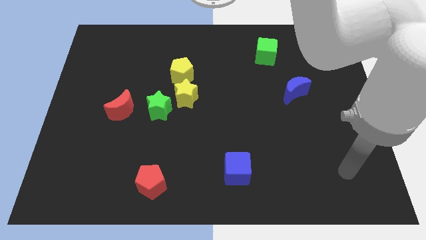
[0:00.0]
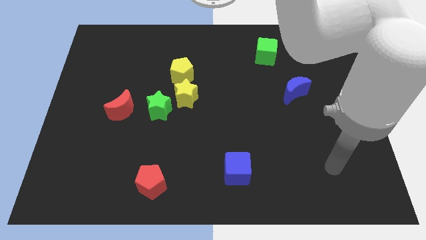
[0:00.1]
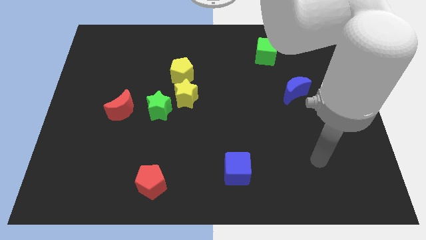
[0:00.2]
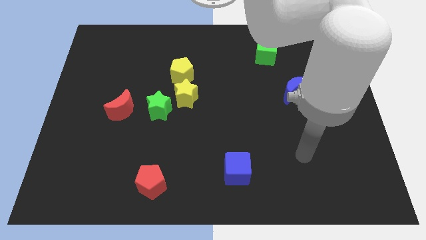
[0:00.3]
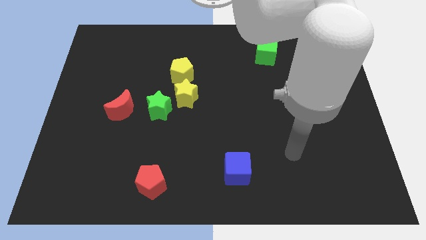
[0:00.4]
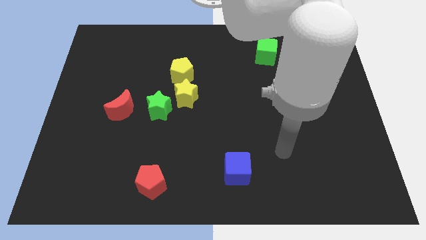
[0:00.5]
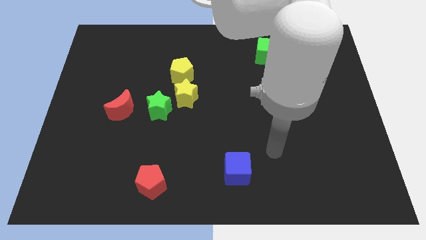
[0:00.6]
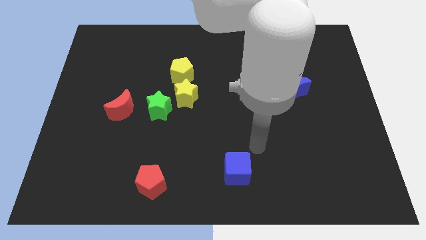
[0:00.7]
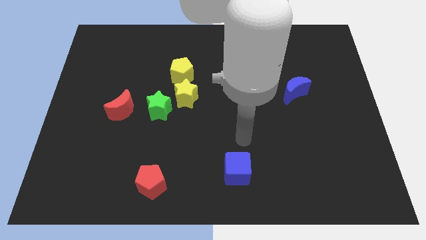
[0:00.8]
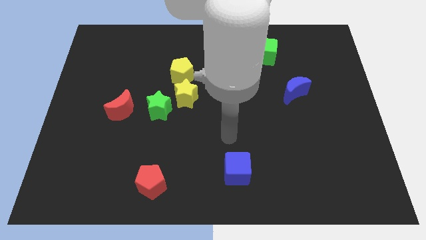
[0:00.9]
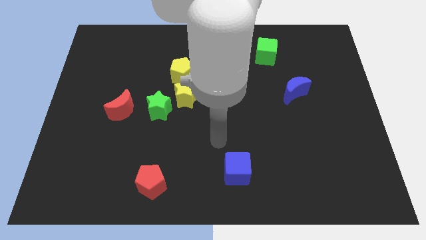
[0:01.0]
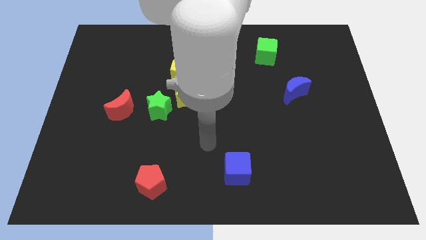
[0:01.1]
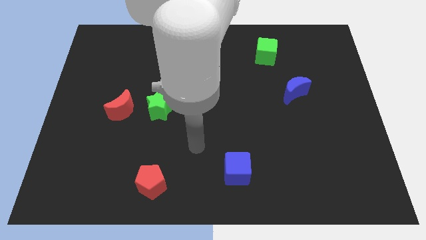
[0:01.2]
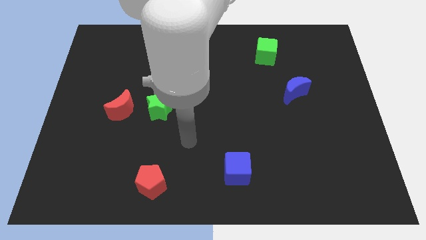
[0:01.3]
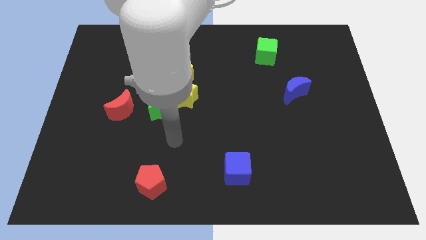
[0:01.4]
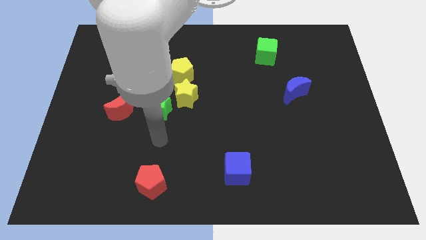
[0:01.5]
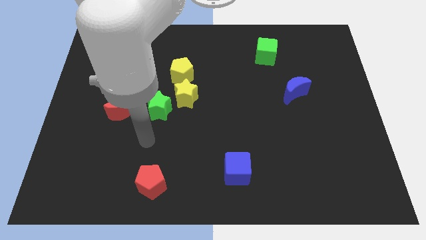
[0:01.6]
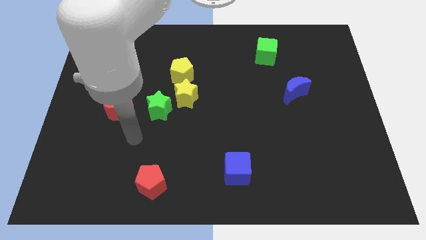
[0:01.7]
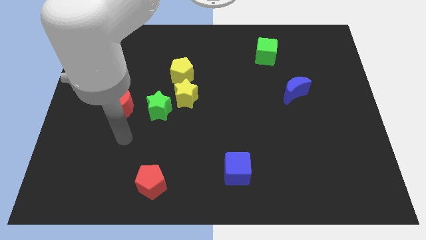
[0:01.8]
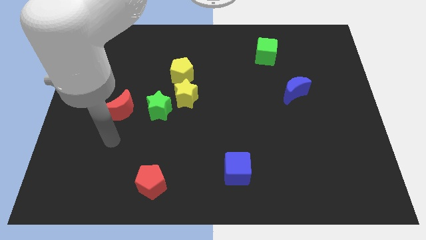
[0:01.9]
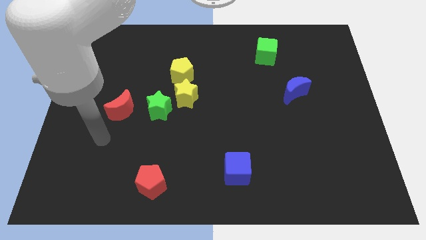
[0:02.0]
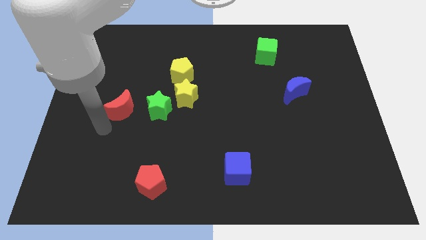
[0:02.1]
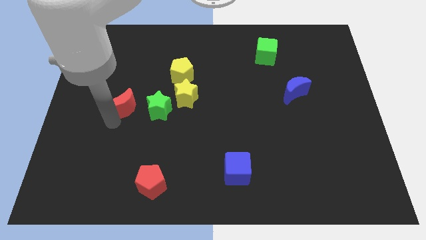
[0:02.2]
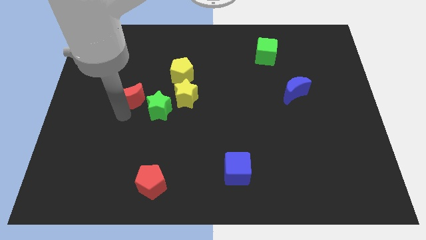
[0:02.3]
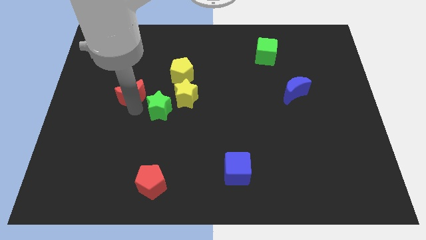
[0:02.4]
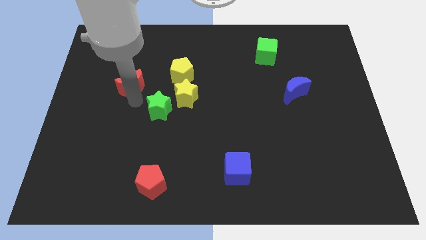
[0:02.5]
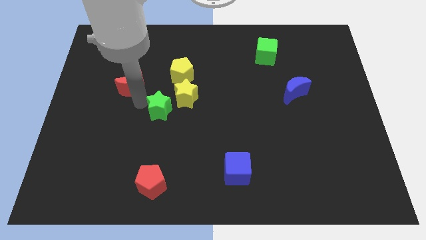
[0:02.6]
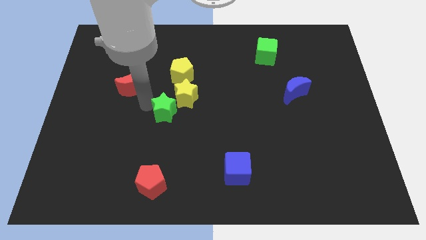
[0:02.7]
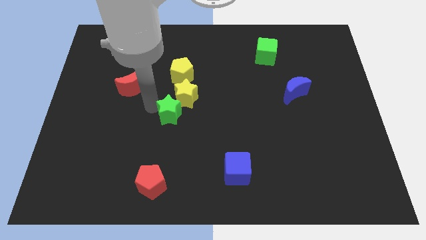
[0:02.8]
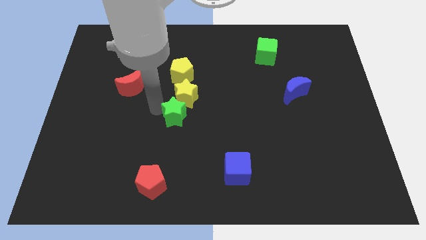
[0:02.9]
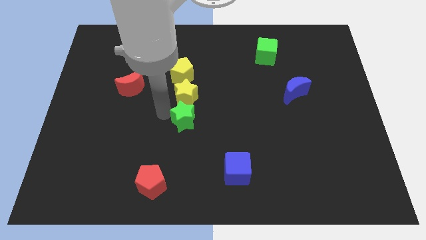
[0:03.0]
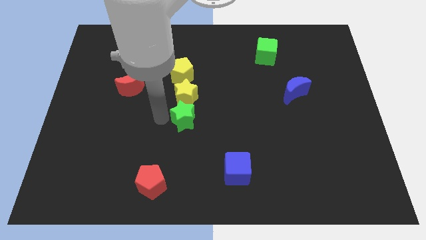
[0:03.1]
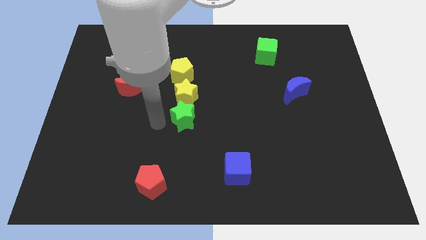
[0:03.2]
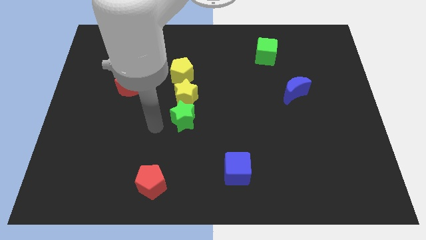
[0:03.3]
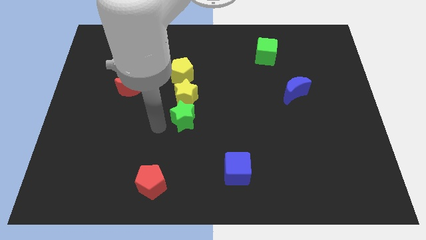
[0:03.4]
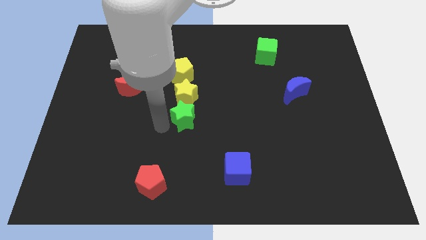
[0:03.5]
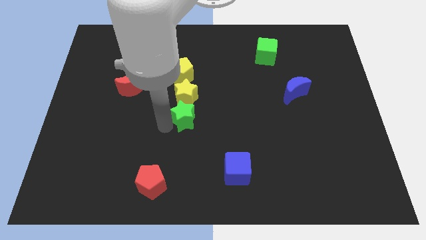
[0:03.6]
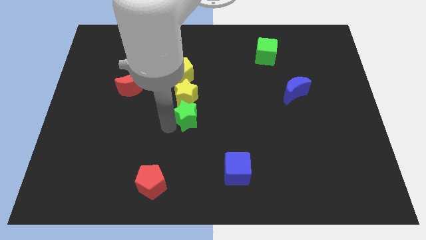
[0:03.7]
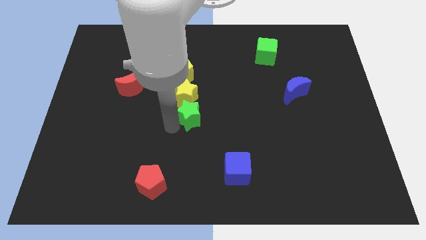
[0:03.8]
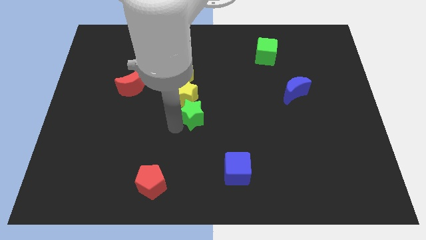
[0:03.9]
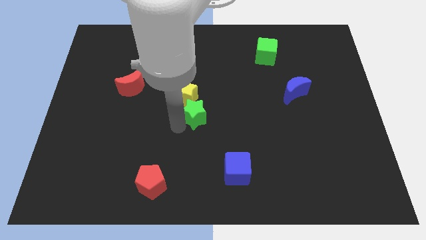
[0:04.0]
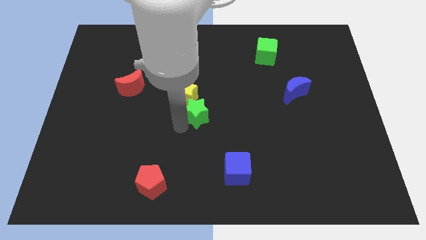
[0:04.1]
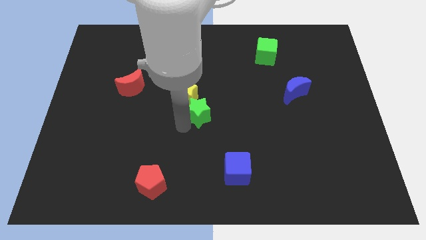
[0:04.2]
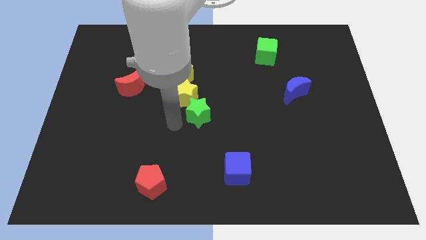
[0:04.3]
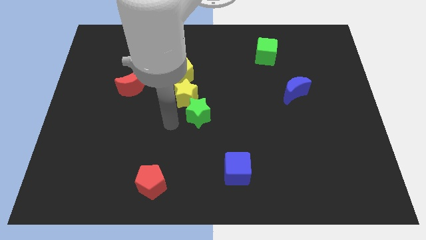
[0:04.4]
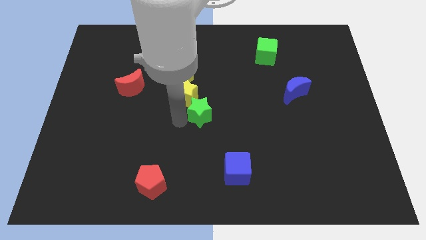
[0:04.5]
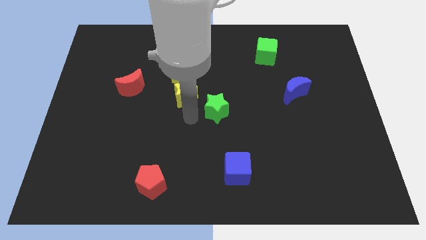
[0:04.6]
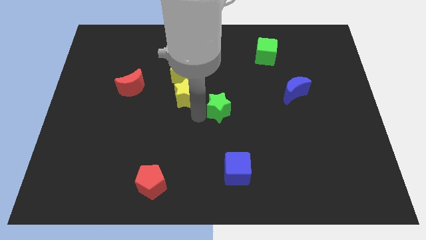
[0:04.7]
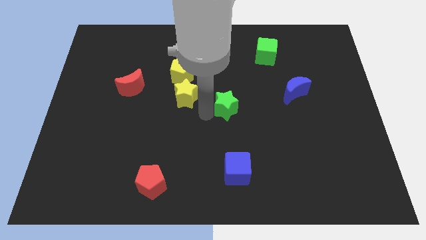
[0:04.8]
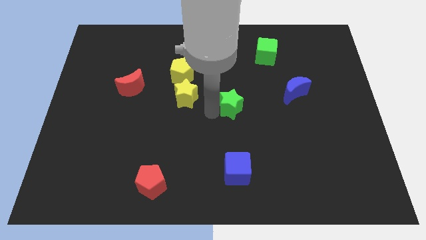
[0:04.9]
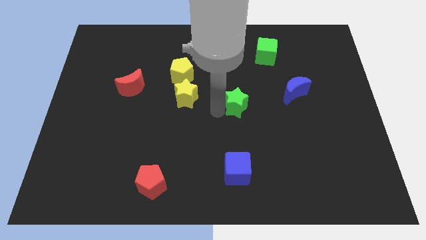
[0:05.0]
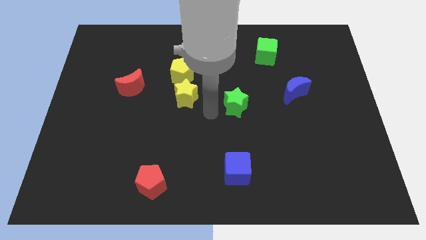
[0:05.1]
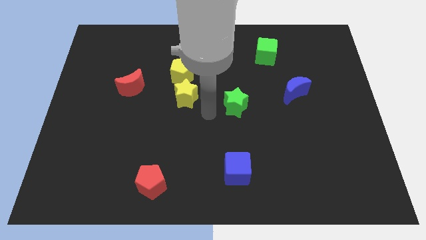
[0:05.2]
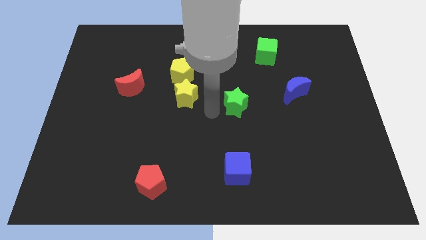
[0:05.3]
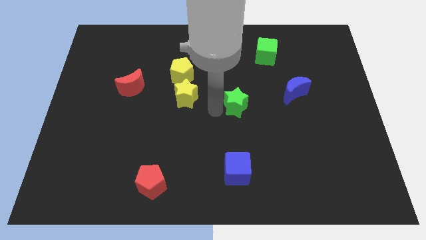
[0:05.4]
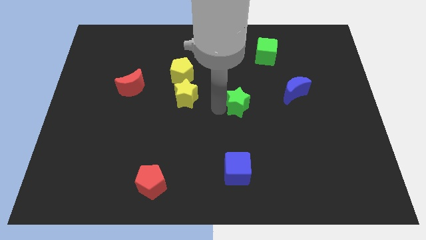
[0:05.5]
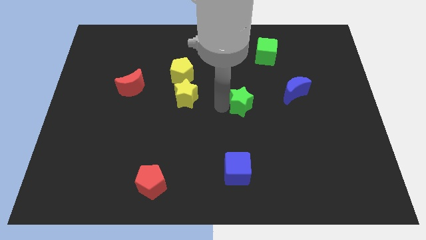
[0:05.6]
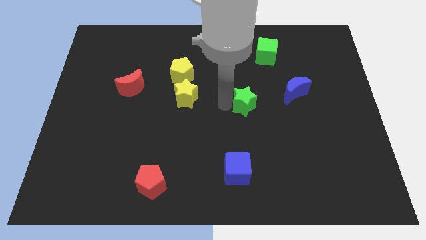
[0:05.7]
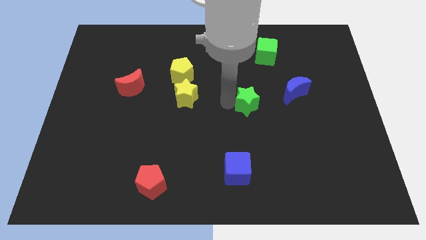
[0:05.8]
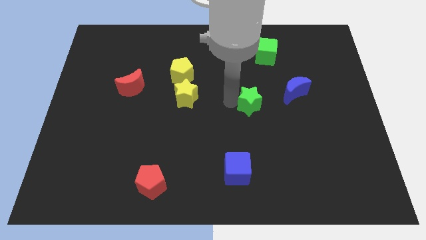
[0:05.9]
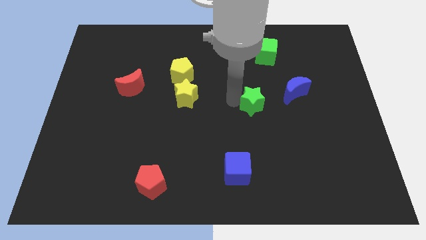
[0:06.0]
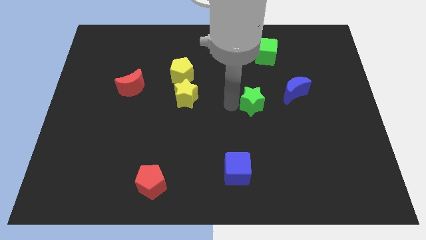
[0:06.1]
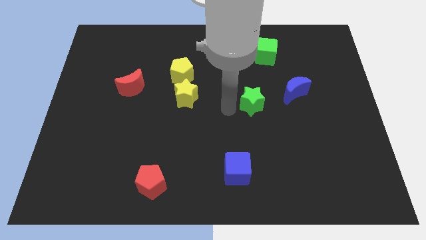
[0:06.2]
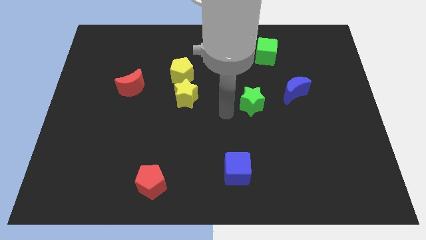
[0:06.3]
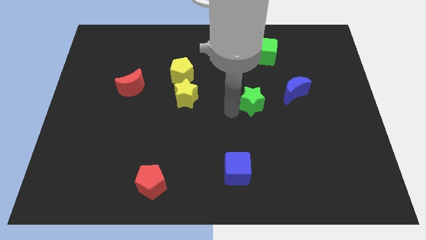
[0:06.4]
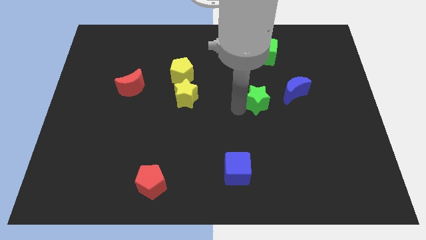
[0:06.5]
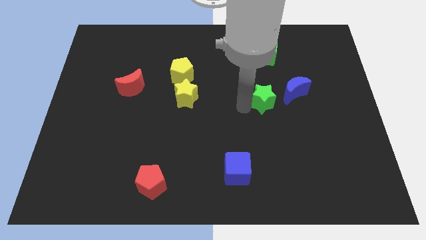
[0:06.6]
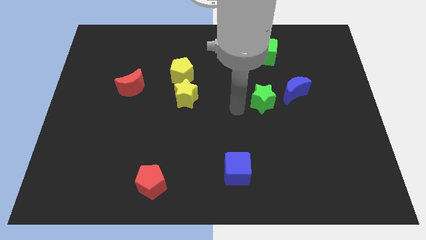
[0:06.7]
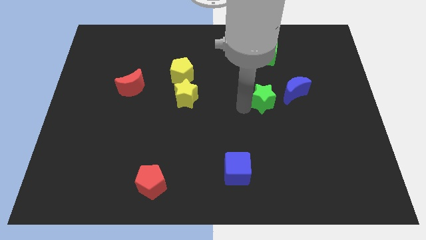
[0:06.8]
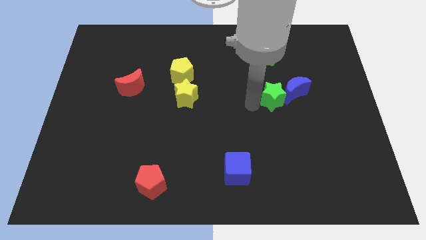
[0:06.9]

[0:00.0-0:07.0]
move the green star to the blue moon

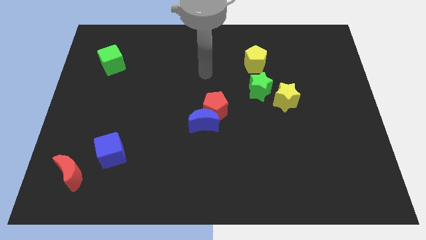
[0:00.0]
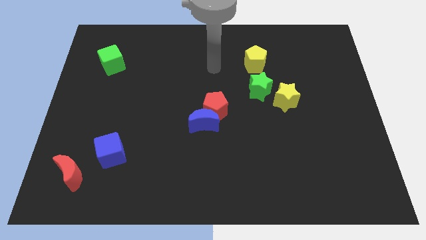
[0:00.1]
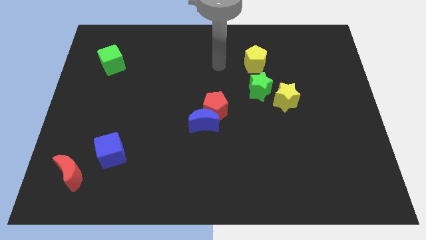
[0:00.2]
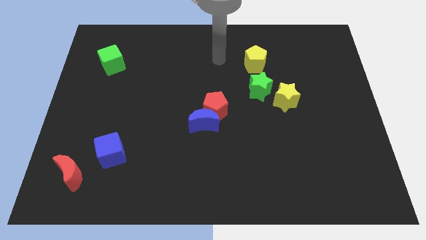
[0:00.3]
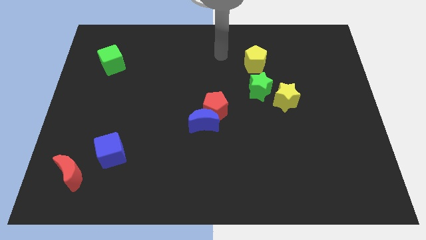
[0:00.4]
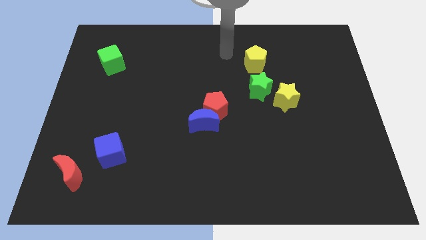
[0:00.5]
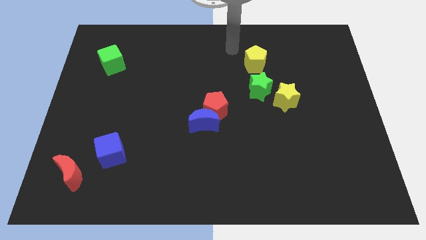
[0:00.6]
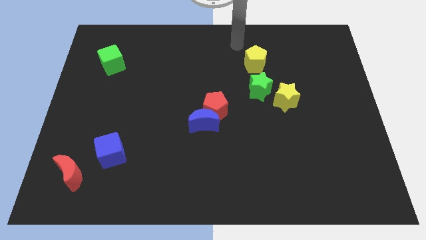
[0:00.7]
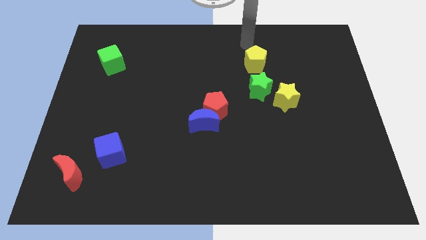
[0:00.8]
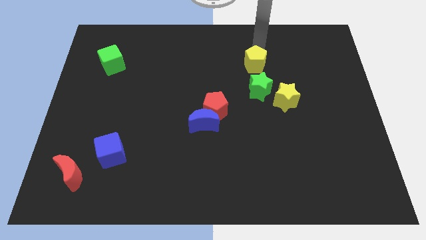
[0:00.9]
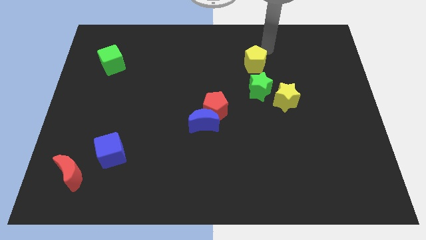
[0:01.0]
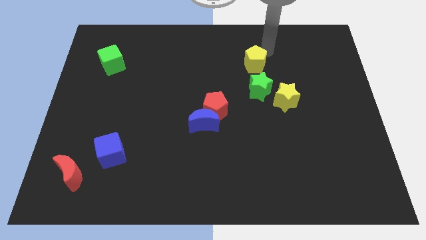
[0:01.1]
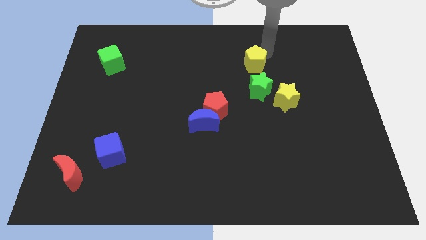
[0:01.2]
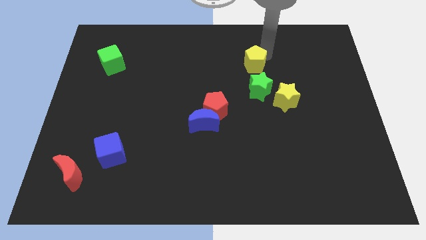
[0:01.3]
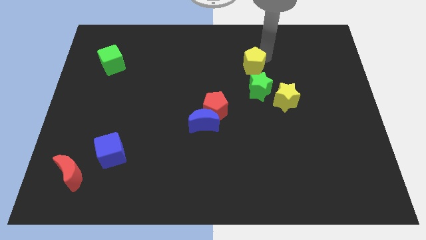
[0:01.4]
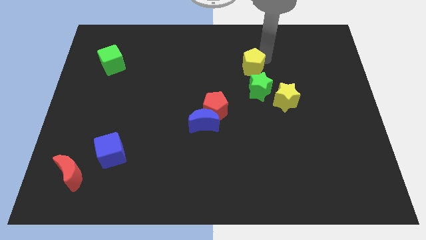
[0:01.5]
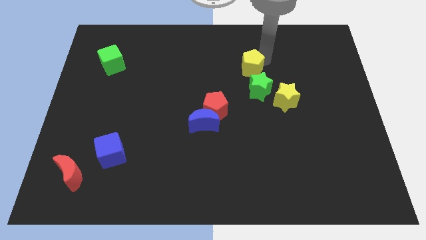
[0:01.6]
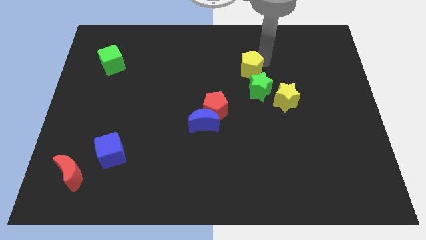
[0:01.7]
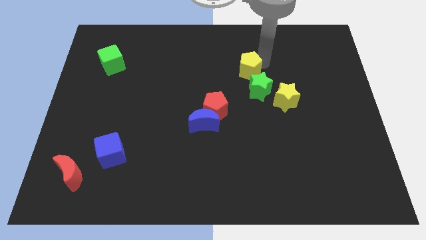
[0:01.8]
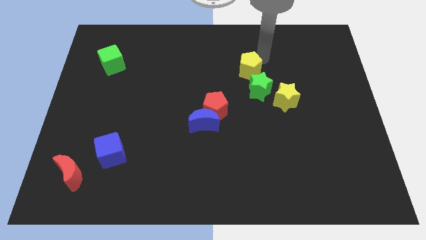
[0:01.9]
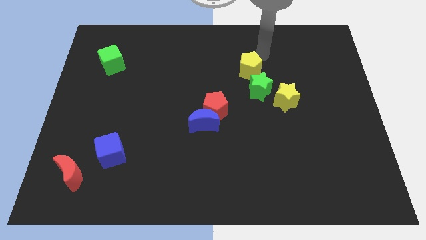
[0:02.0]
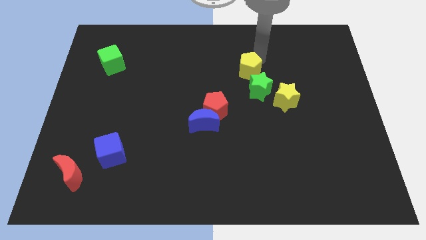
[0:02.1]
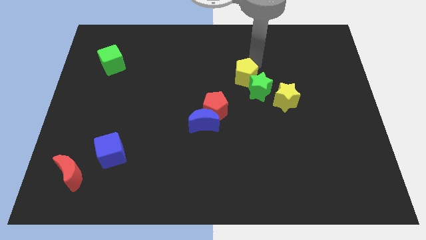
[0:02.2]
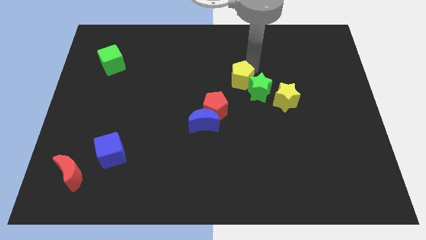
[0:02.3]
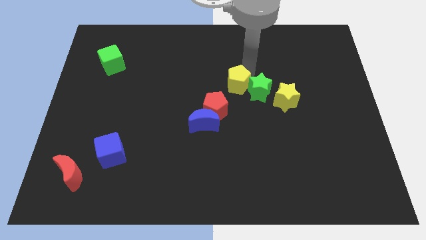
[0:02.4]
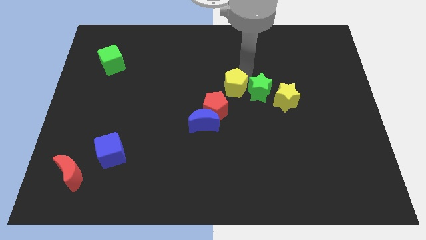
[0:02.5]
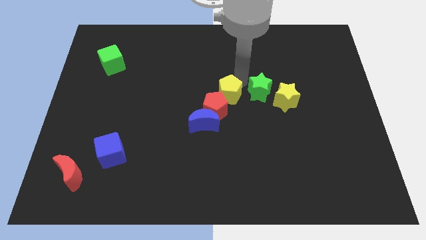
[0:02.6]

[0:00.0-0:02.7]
put the yellow pentagon close to the red pentagon
